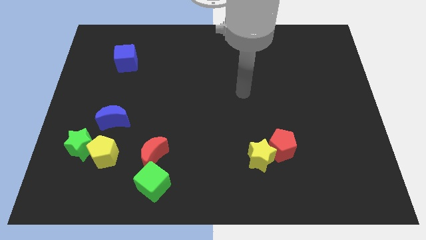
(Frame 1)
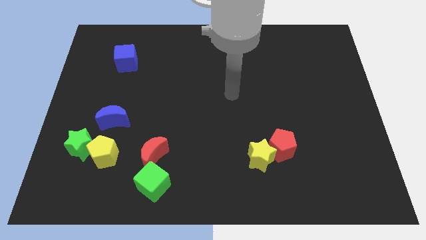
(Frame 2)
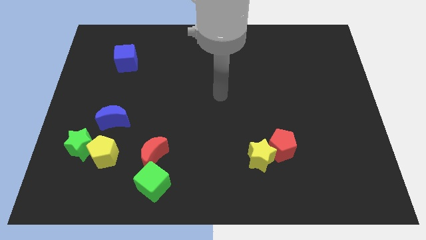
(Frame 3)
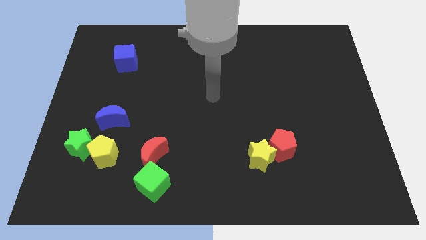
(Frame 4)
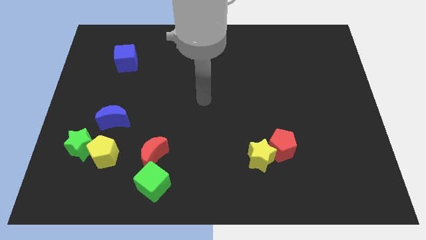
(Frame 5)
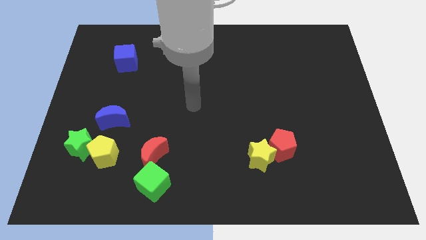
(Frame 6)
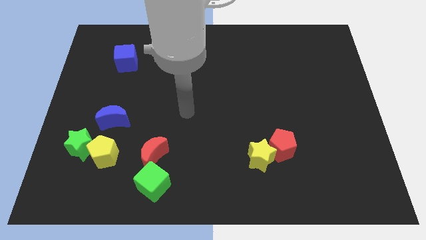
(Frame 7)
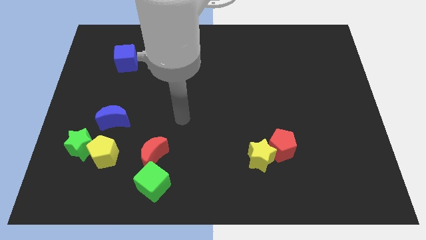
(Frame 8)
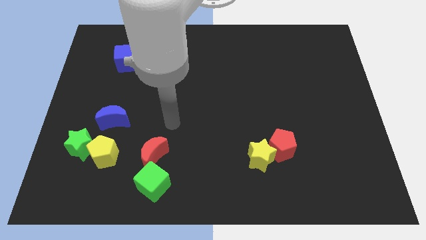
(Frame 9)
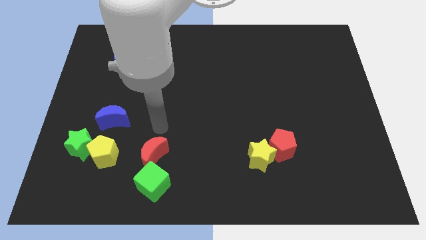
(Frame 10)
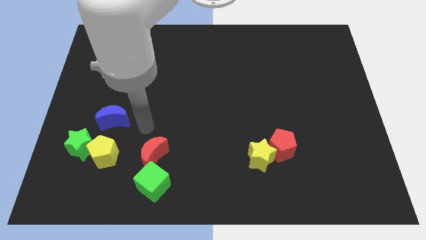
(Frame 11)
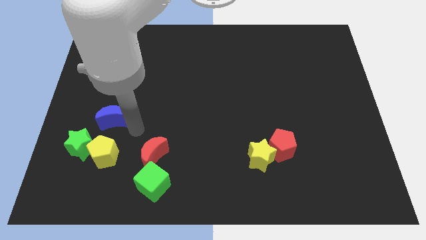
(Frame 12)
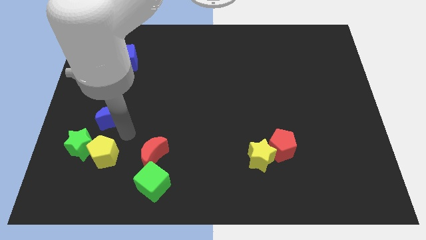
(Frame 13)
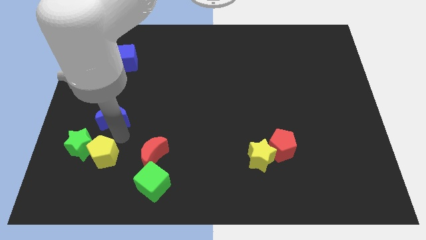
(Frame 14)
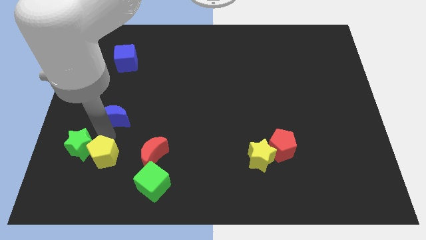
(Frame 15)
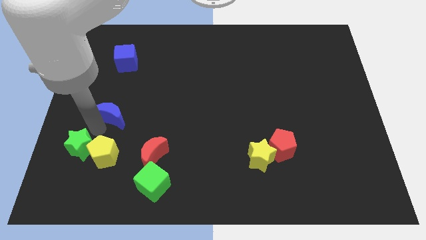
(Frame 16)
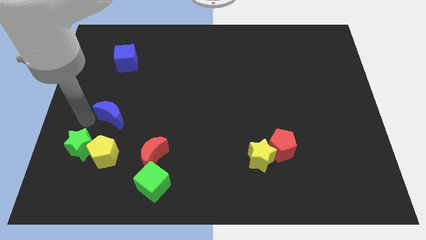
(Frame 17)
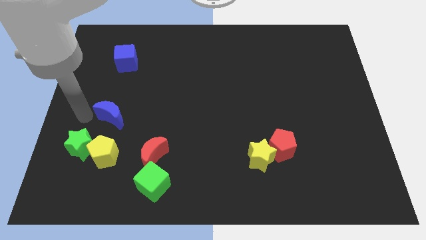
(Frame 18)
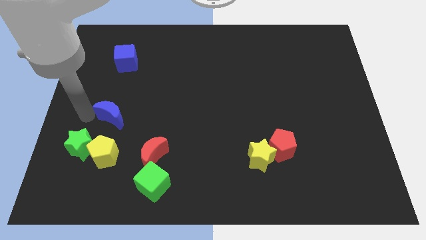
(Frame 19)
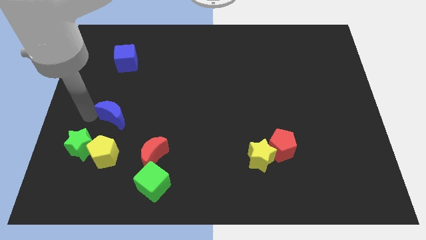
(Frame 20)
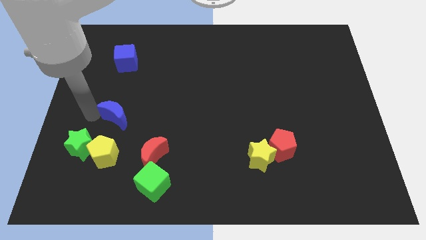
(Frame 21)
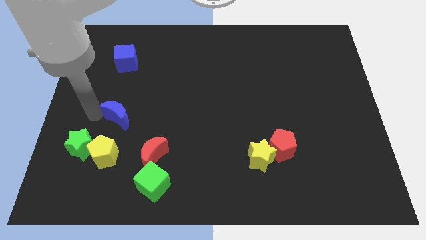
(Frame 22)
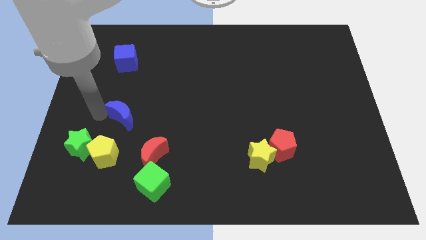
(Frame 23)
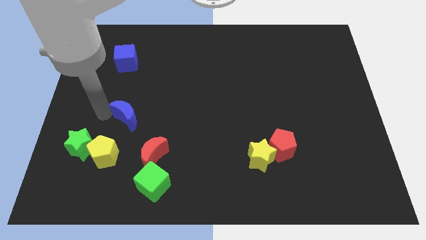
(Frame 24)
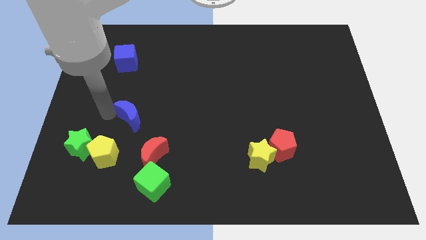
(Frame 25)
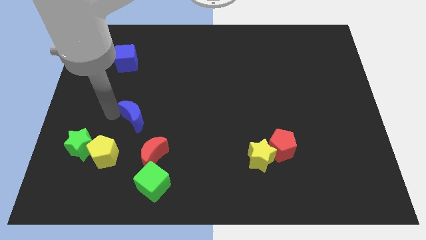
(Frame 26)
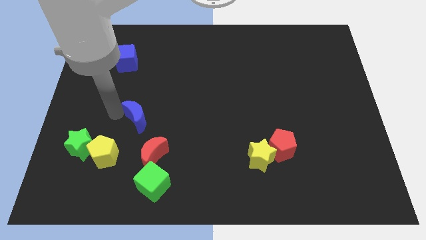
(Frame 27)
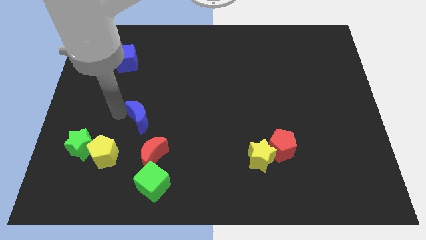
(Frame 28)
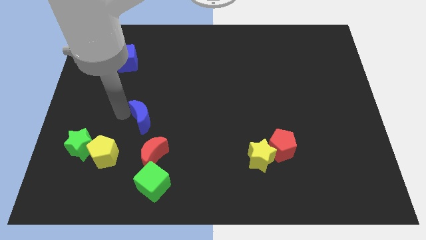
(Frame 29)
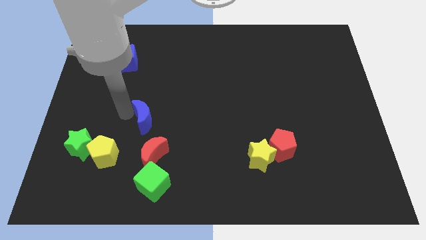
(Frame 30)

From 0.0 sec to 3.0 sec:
move the blue moon right a bit

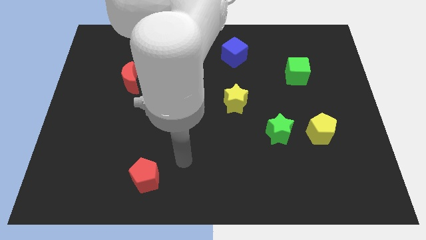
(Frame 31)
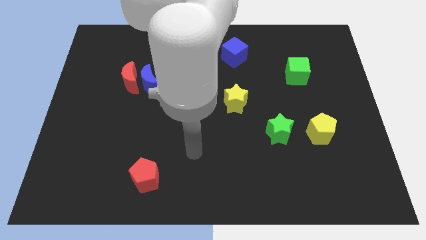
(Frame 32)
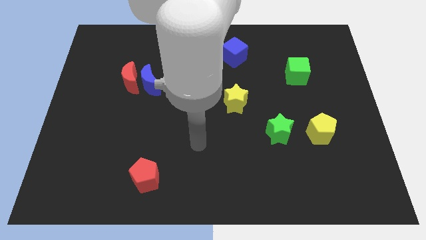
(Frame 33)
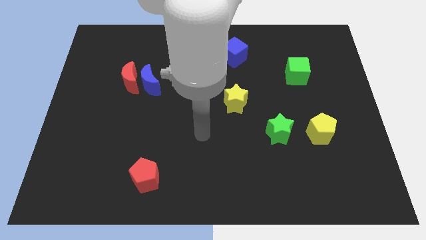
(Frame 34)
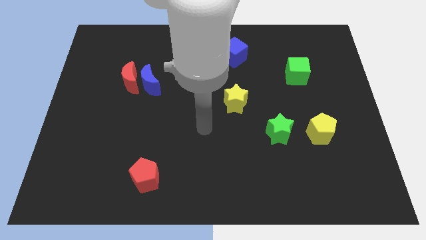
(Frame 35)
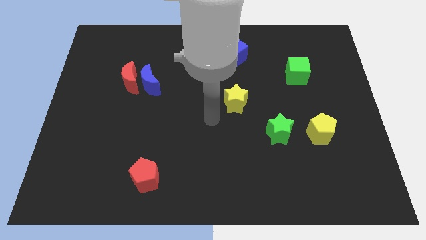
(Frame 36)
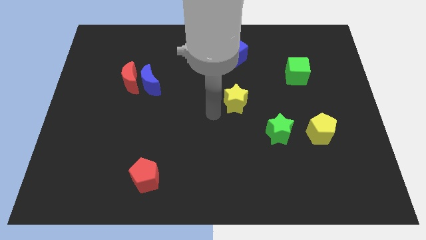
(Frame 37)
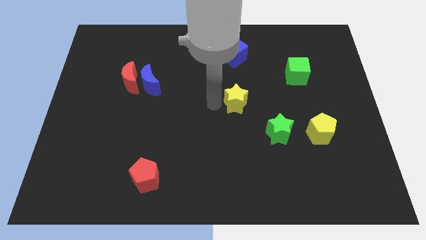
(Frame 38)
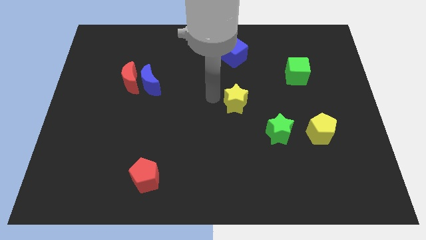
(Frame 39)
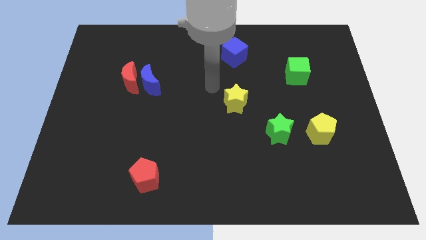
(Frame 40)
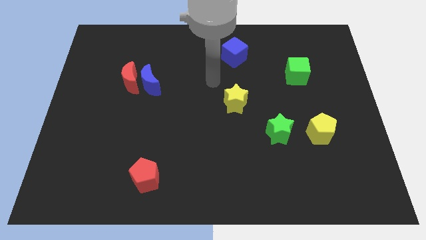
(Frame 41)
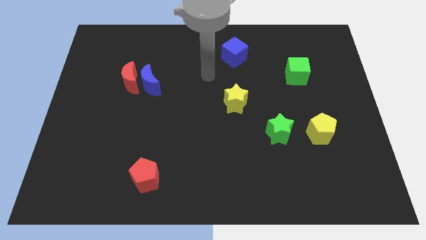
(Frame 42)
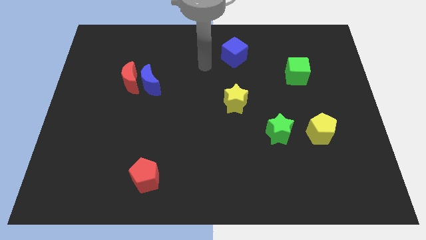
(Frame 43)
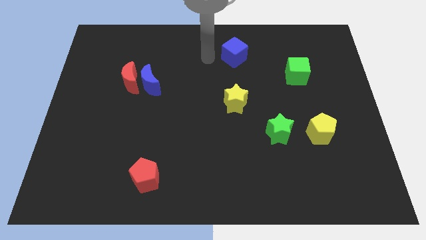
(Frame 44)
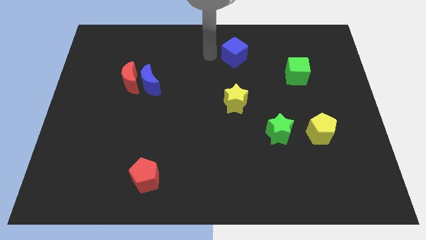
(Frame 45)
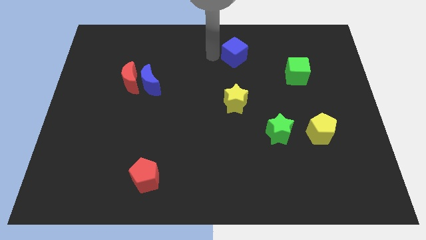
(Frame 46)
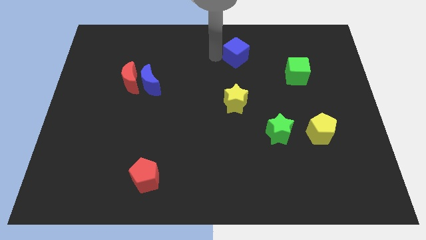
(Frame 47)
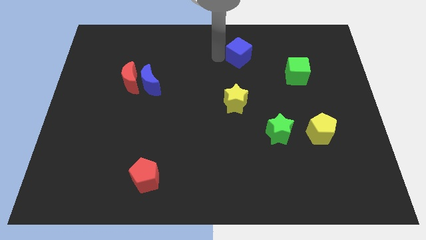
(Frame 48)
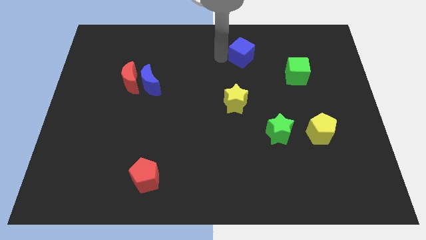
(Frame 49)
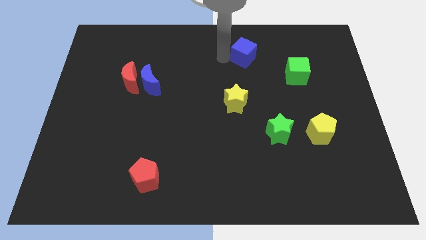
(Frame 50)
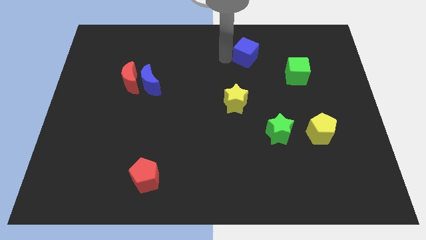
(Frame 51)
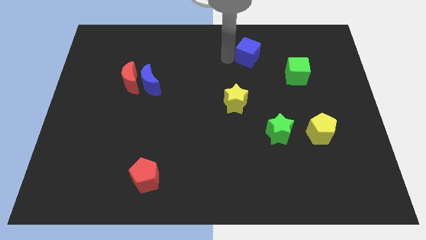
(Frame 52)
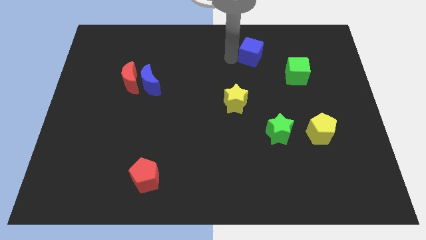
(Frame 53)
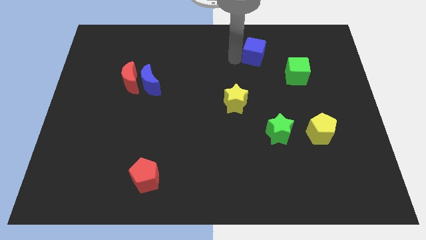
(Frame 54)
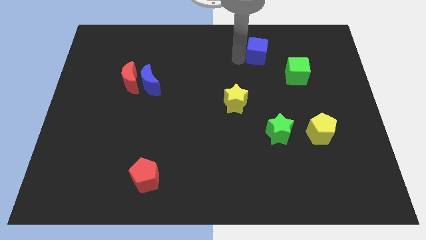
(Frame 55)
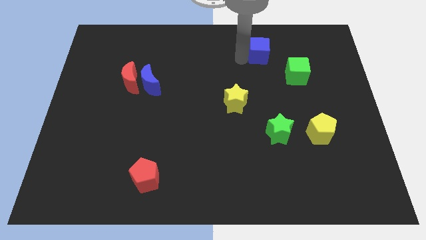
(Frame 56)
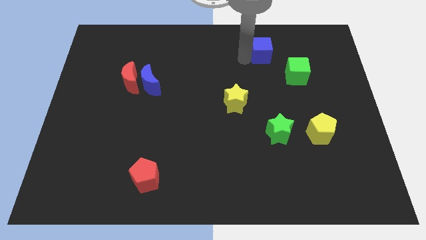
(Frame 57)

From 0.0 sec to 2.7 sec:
slightly move the blue cube to the right

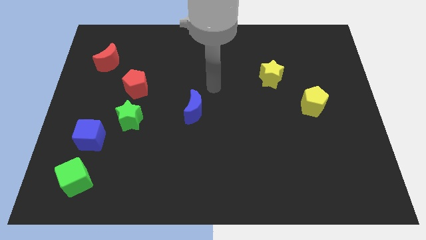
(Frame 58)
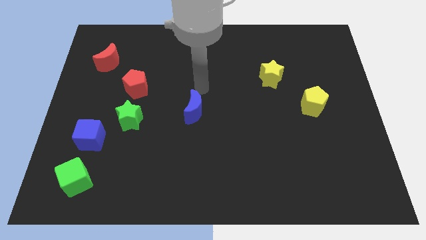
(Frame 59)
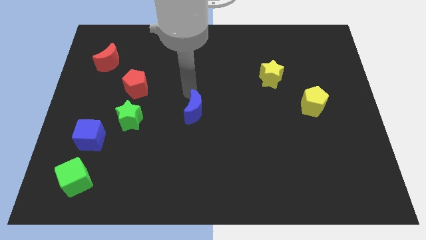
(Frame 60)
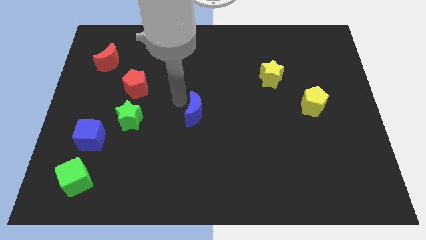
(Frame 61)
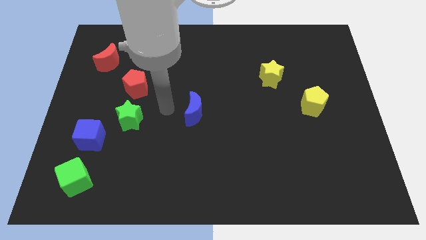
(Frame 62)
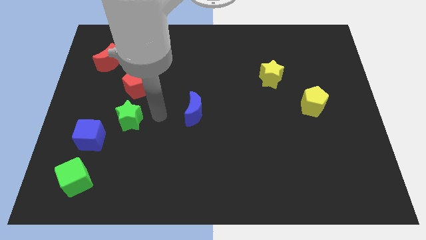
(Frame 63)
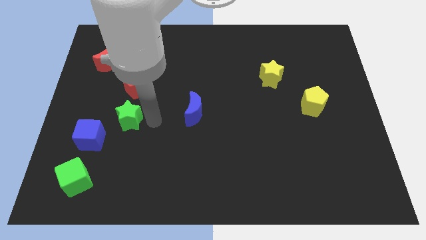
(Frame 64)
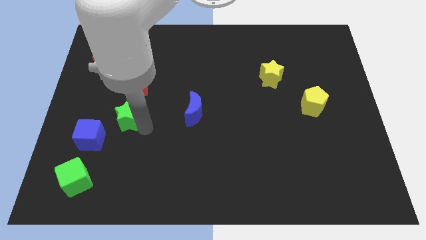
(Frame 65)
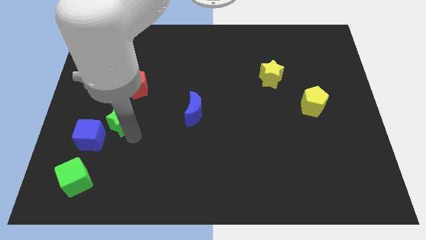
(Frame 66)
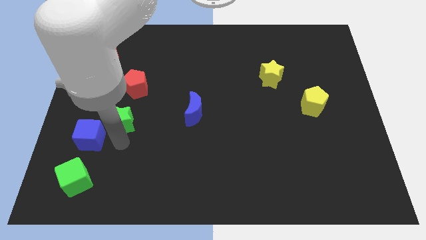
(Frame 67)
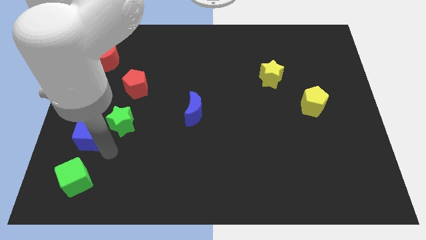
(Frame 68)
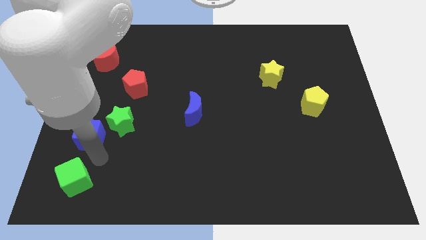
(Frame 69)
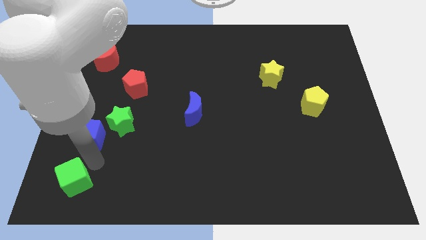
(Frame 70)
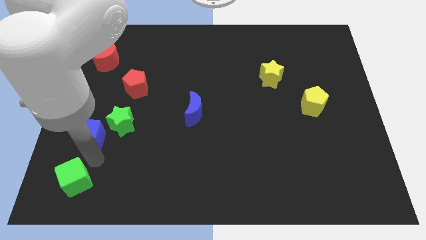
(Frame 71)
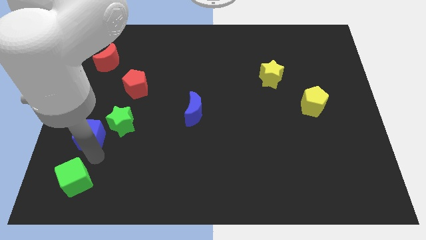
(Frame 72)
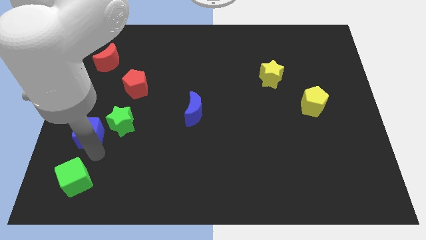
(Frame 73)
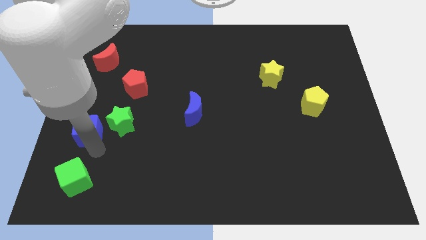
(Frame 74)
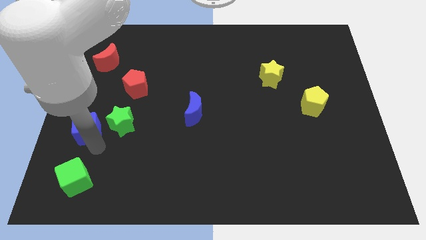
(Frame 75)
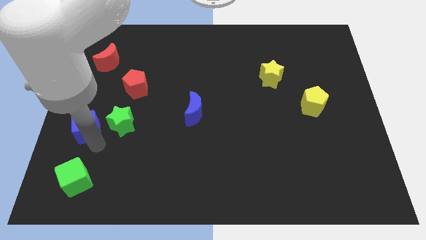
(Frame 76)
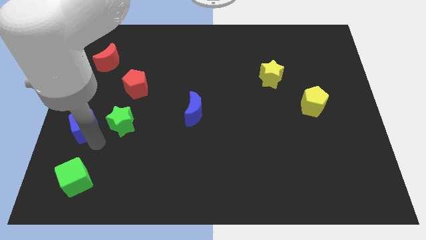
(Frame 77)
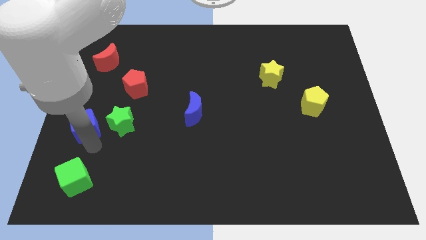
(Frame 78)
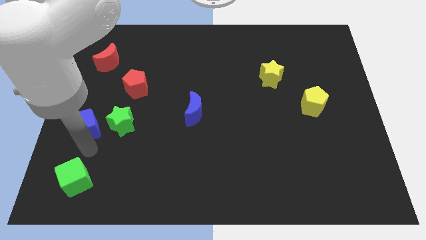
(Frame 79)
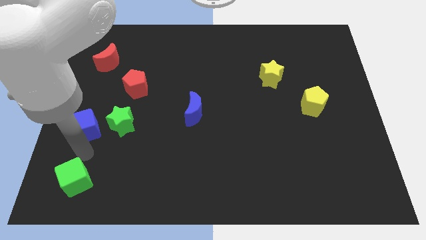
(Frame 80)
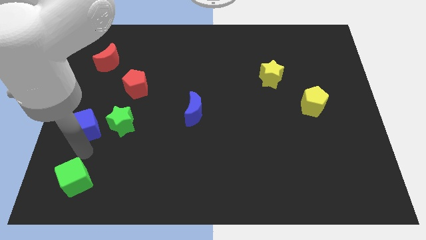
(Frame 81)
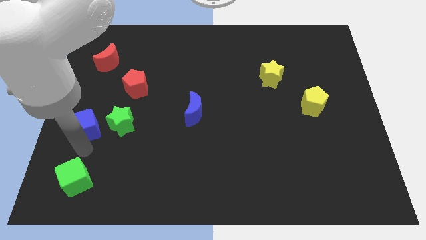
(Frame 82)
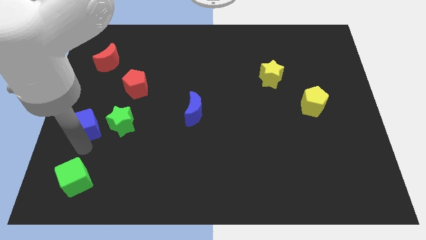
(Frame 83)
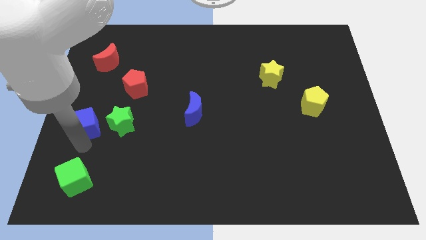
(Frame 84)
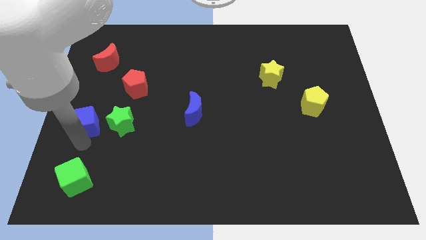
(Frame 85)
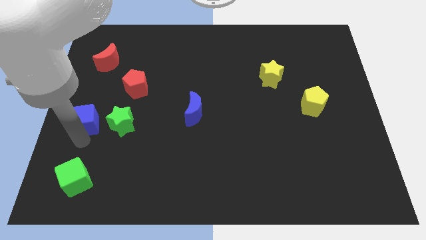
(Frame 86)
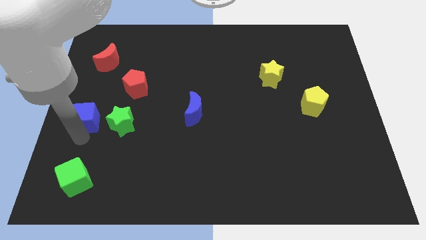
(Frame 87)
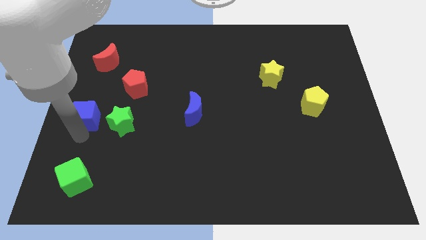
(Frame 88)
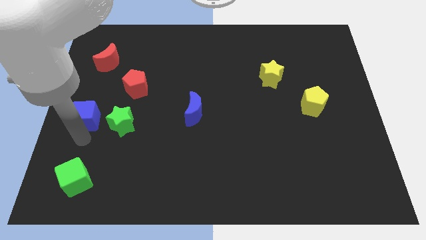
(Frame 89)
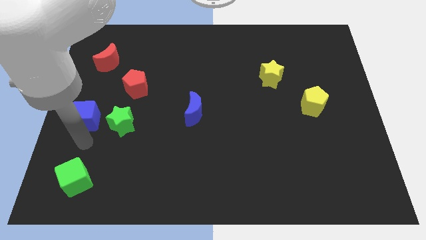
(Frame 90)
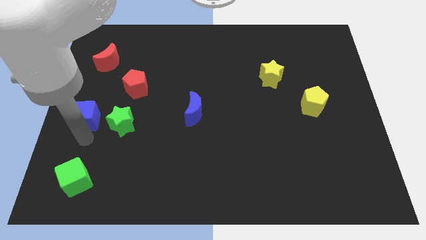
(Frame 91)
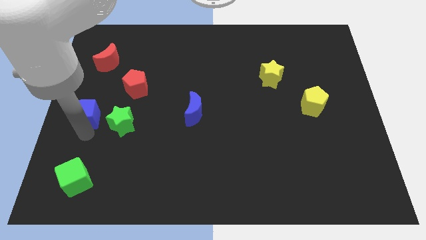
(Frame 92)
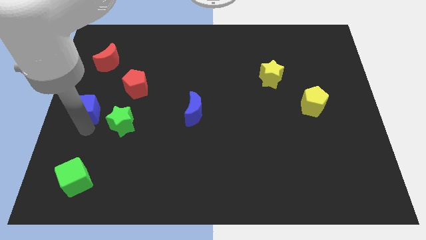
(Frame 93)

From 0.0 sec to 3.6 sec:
slightly move the blue cube upwards
